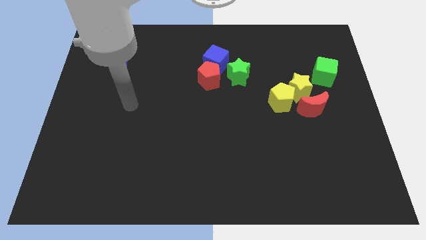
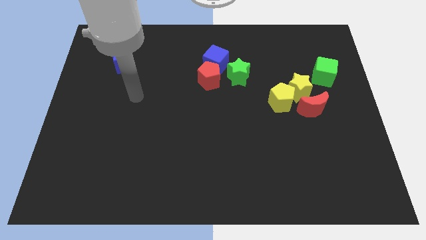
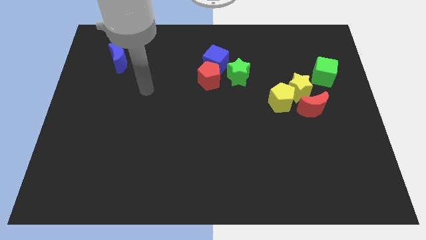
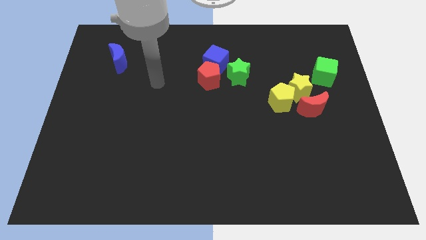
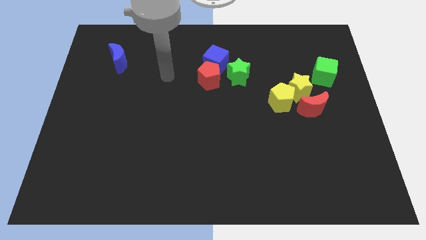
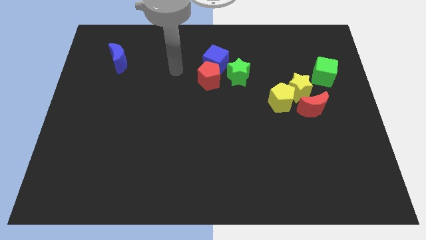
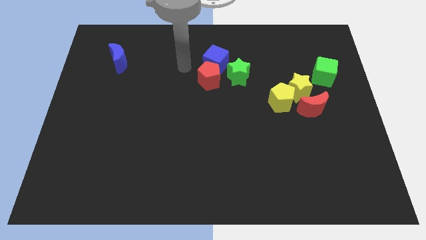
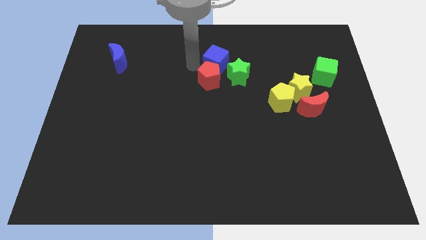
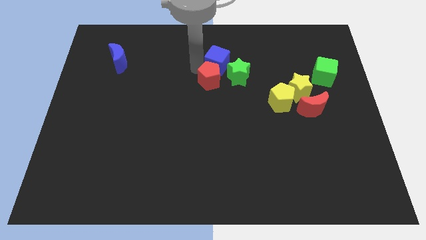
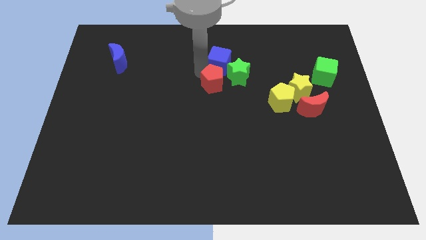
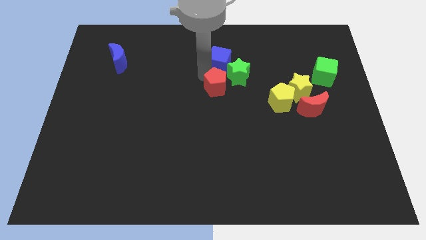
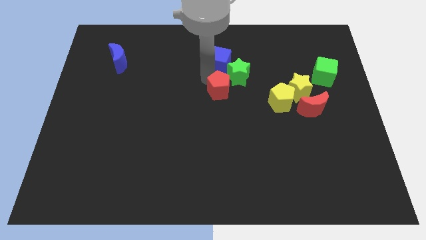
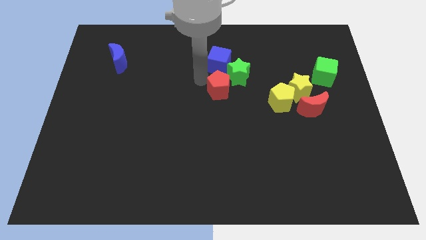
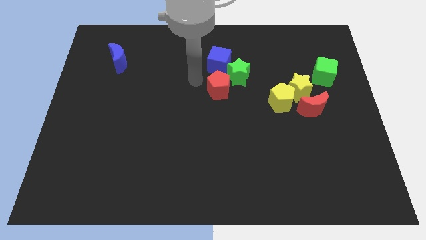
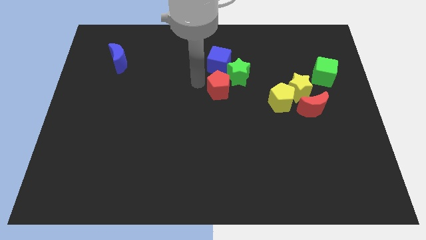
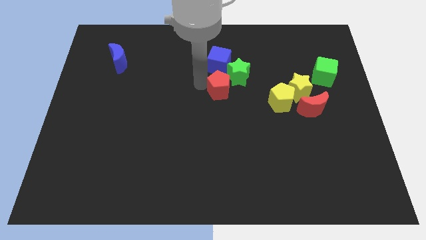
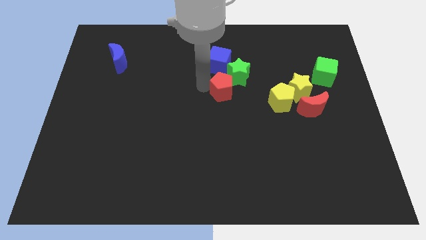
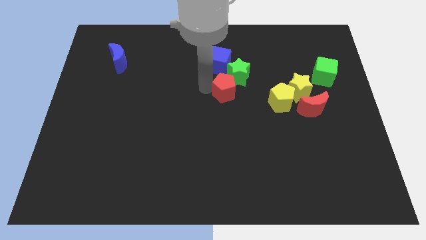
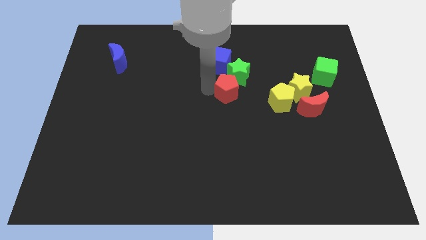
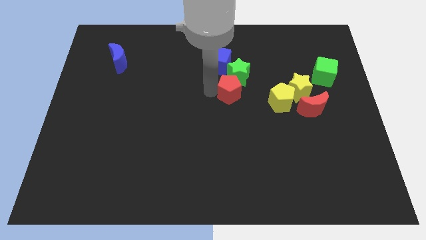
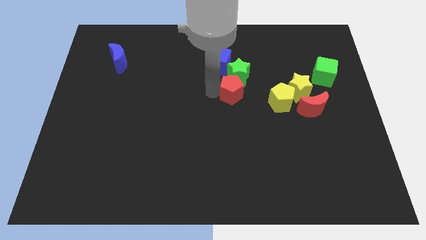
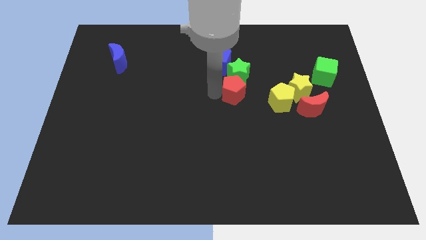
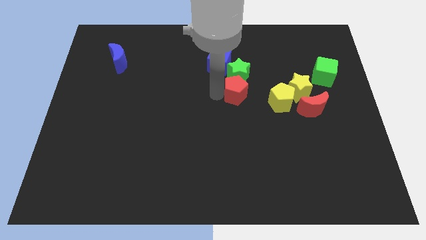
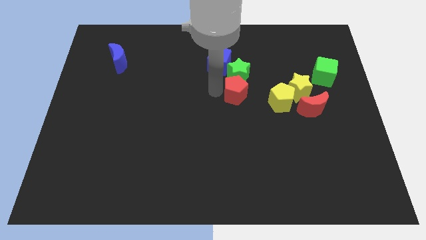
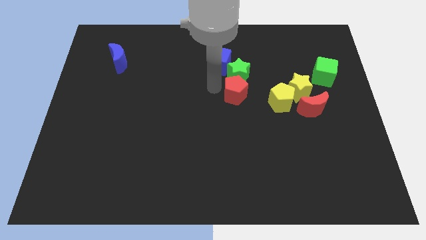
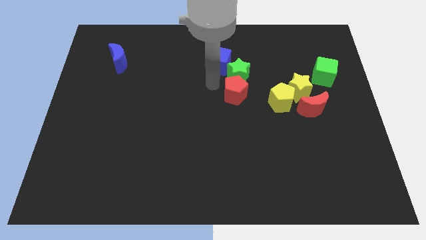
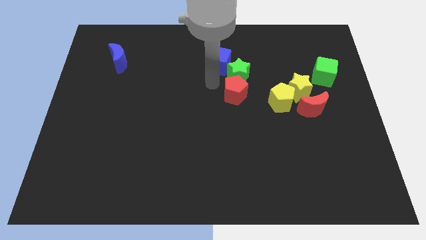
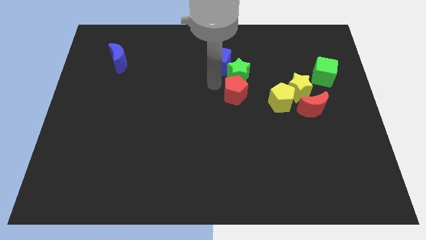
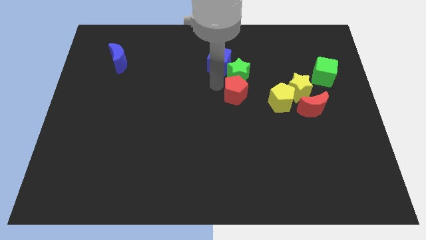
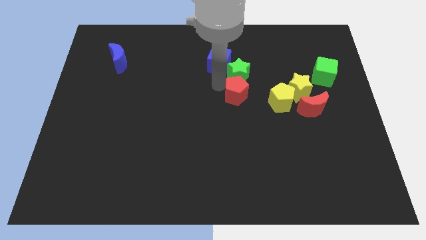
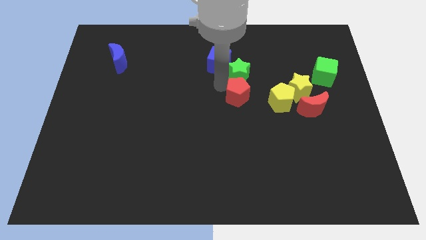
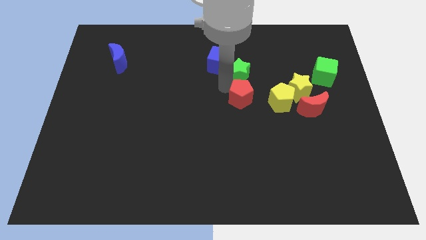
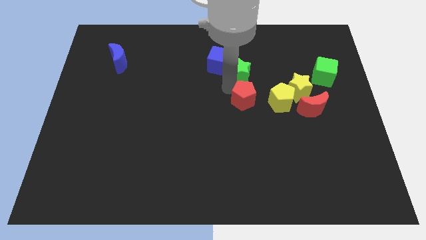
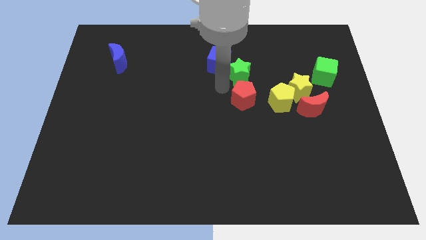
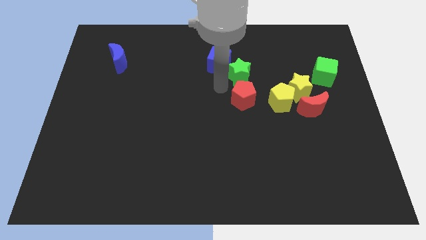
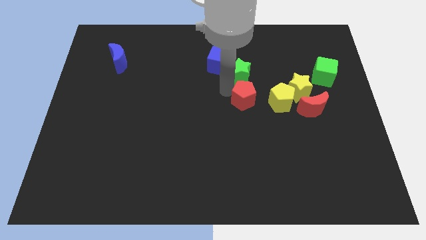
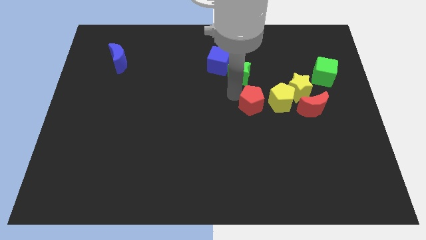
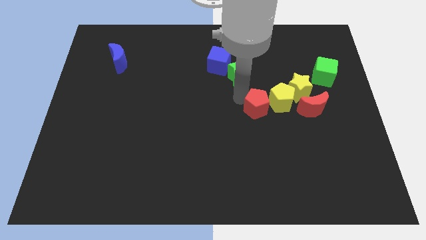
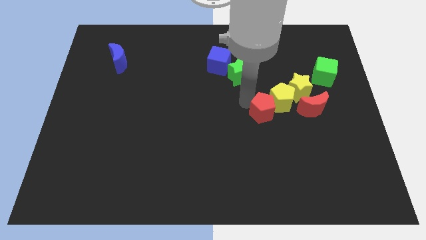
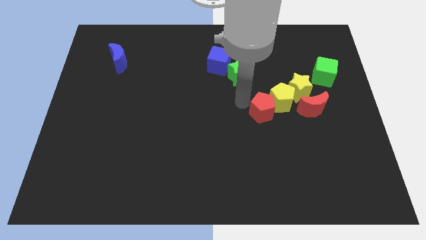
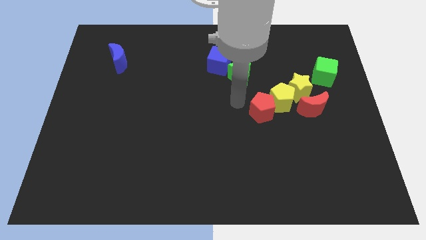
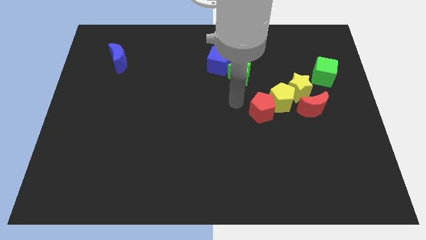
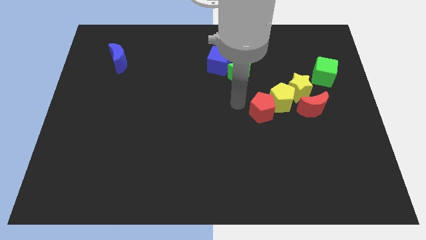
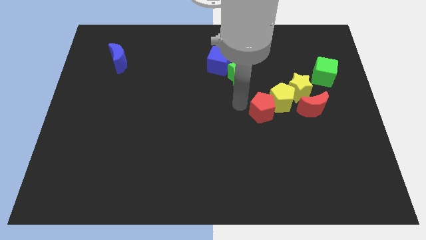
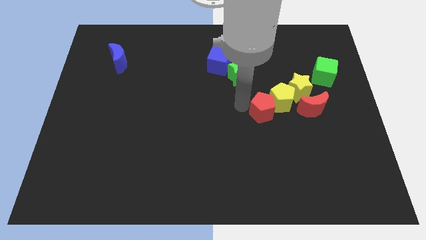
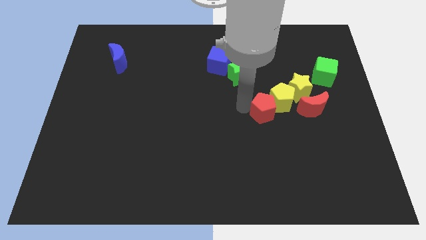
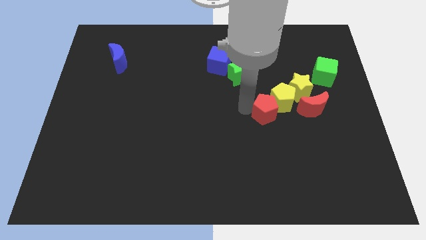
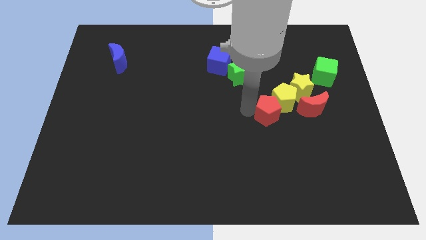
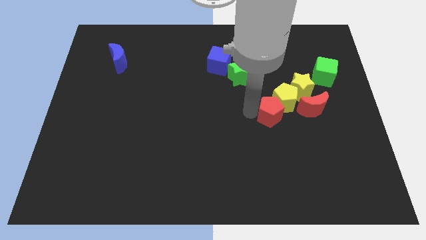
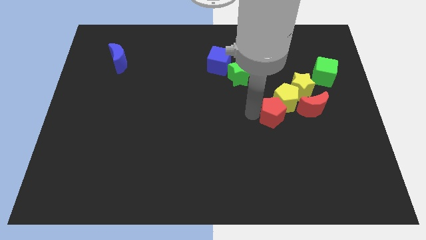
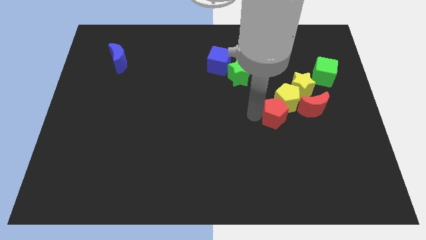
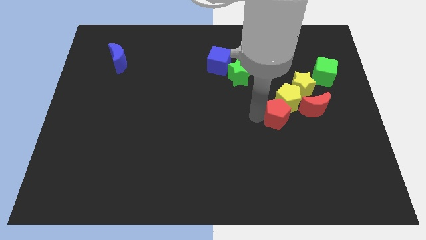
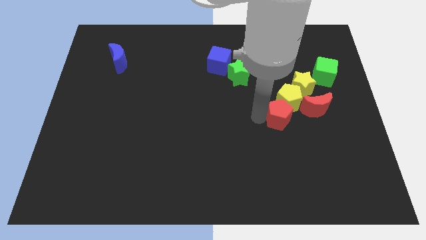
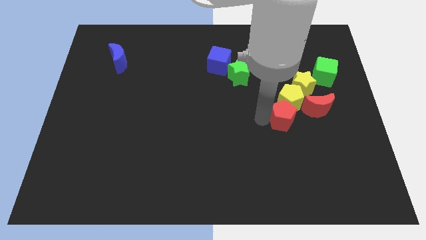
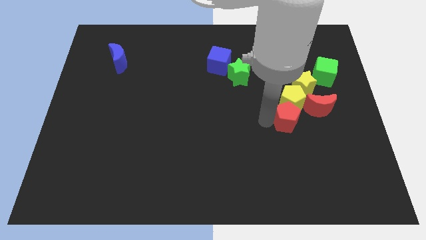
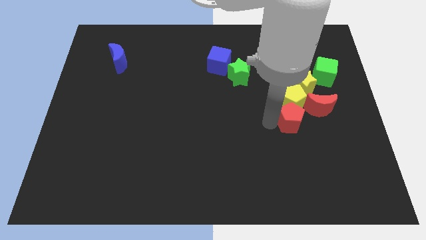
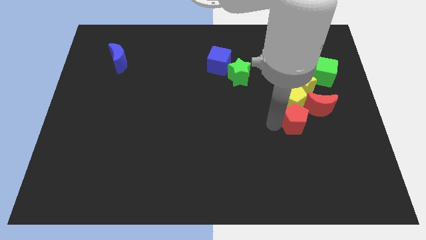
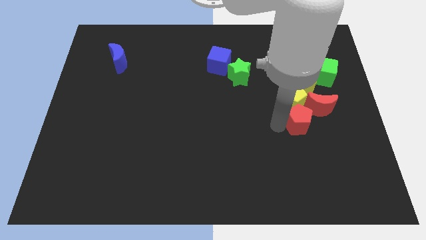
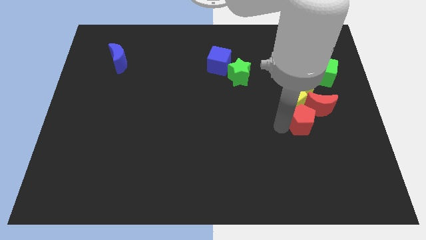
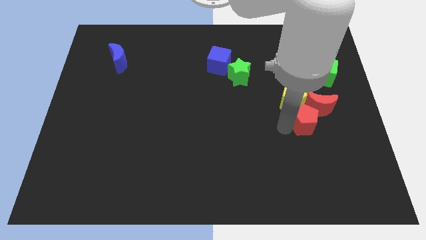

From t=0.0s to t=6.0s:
put the red pentagon close to the red moon

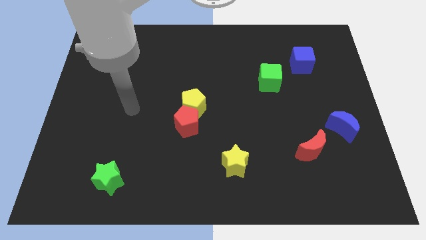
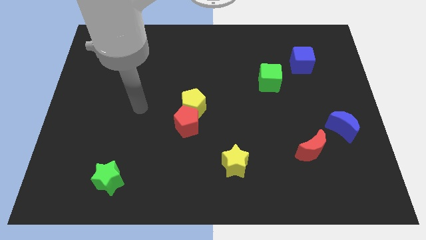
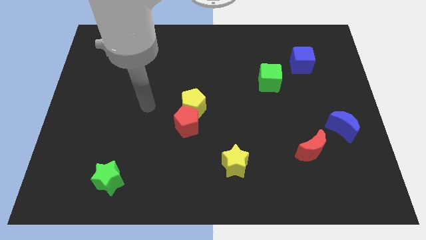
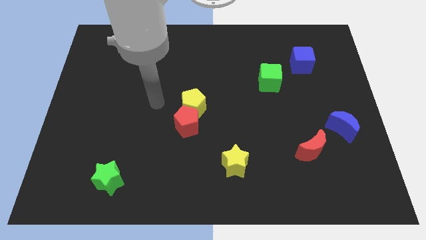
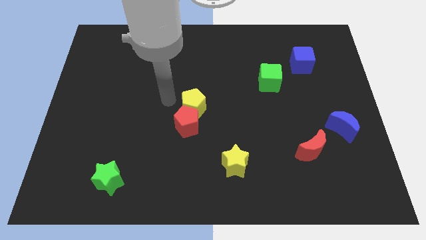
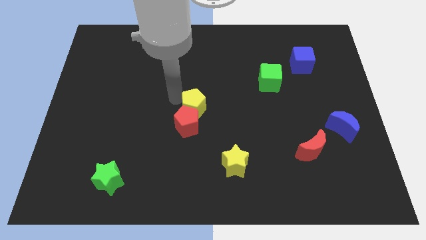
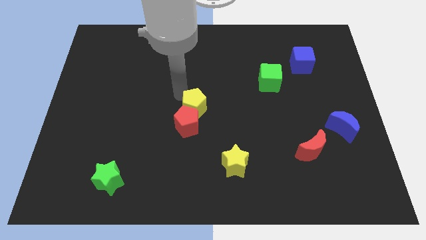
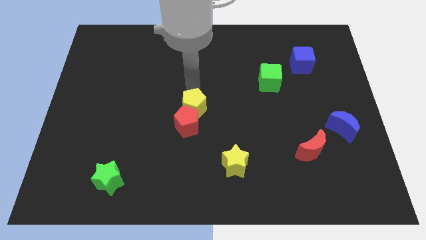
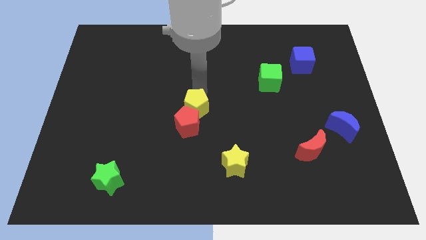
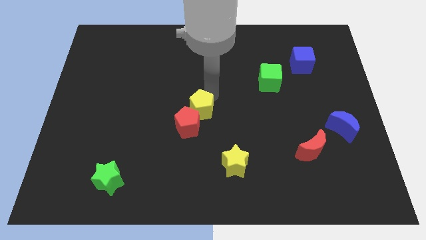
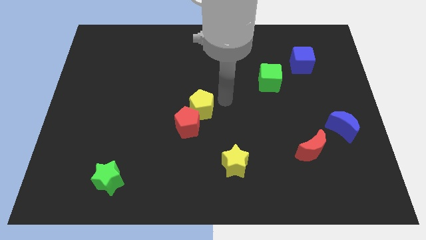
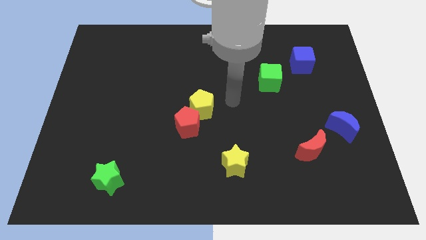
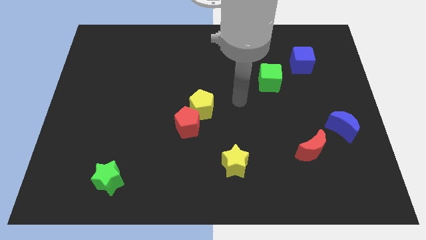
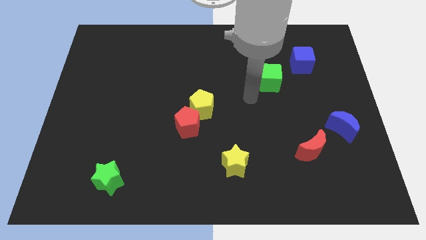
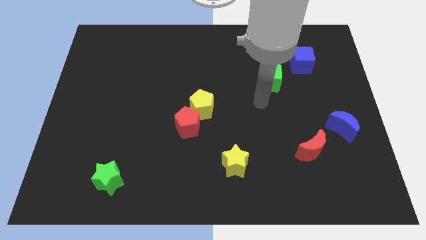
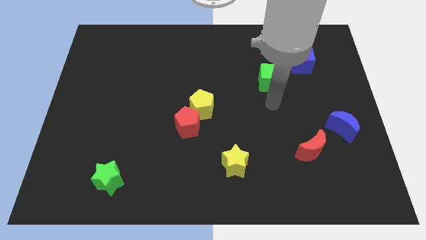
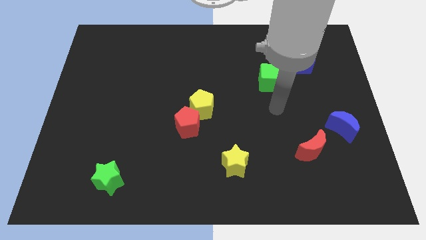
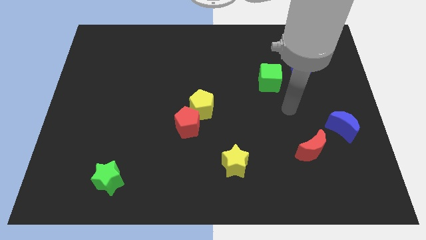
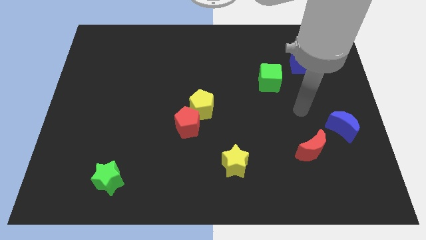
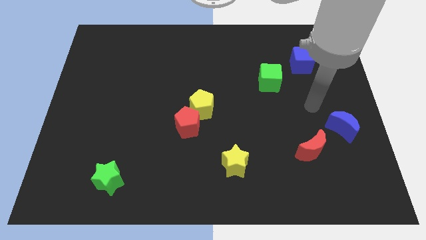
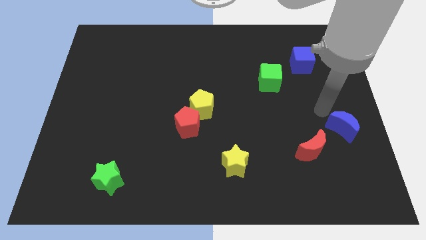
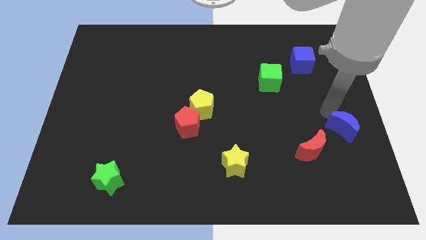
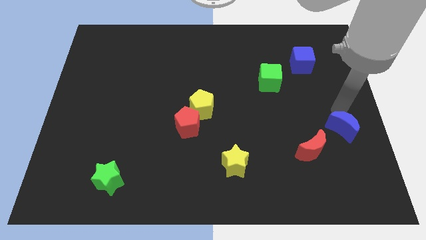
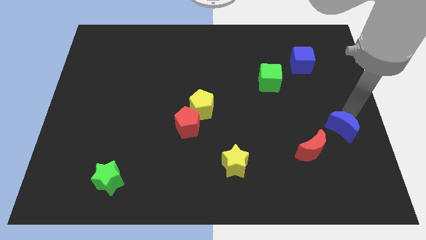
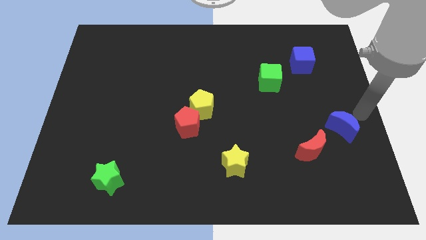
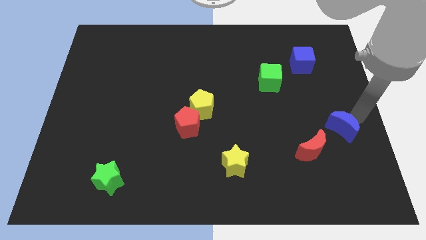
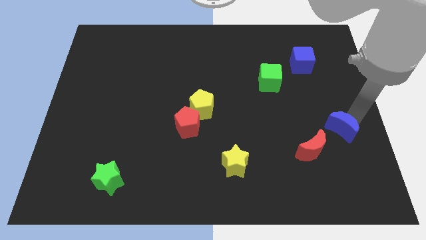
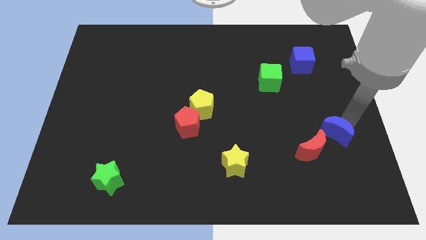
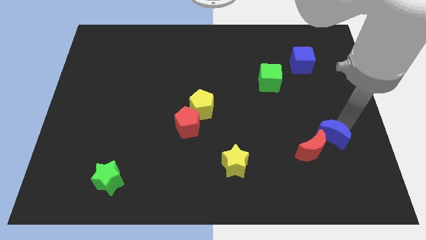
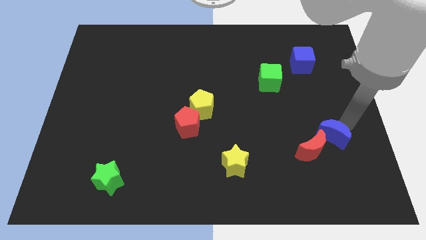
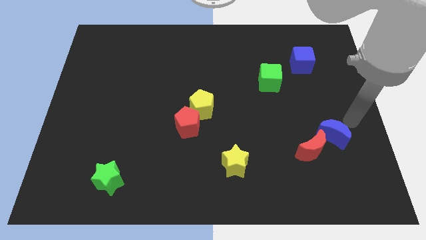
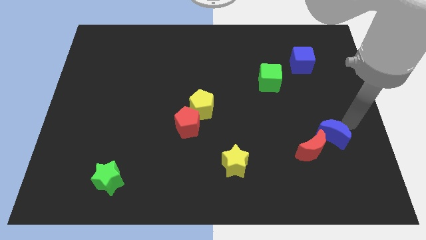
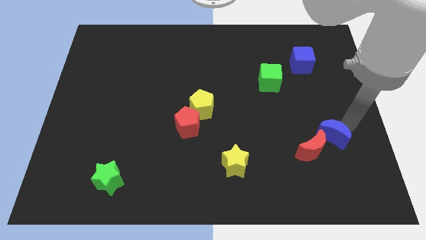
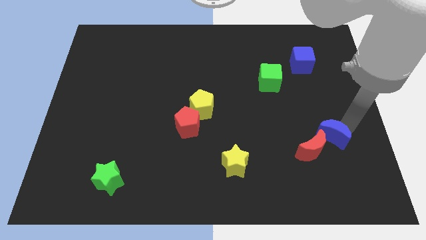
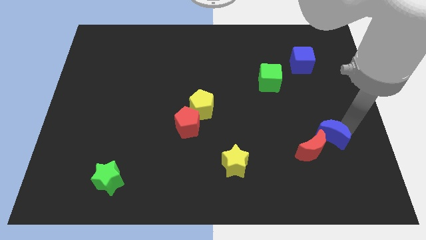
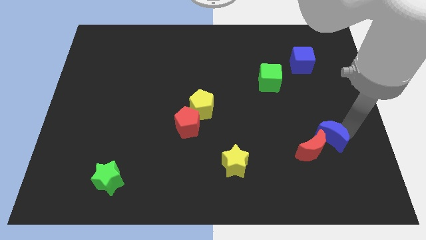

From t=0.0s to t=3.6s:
push the blue moon close to the red moon
